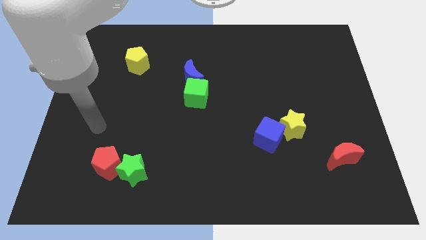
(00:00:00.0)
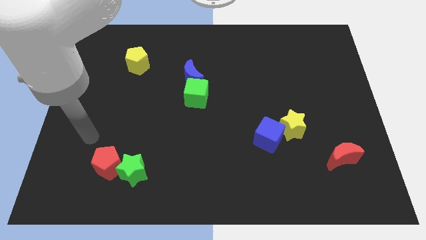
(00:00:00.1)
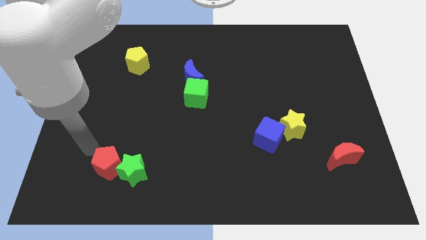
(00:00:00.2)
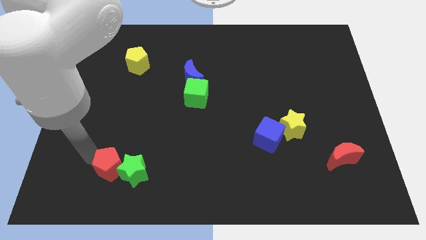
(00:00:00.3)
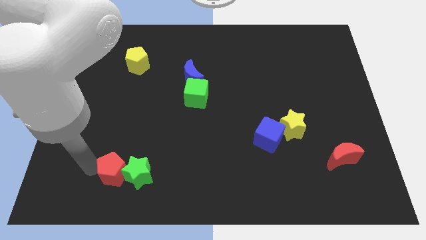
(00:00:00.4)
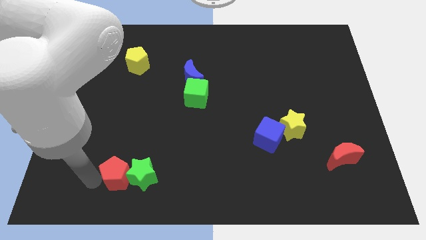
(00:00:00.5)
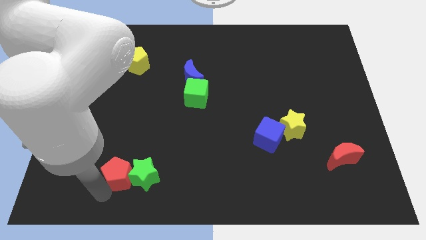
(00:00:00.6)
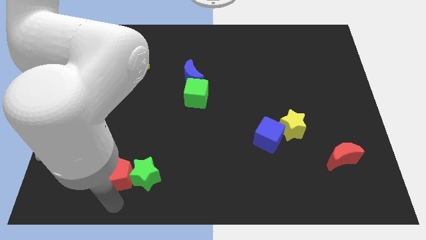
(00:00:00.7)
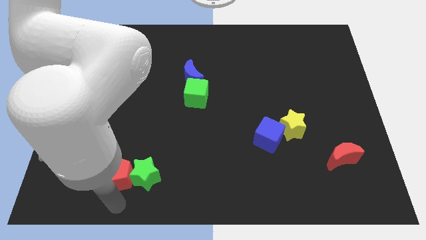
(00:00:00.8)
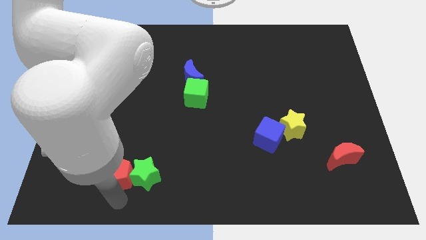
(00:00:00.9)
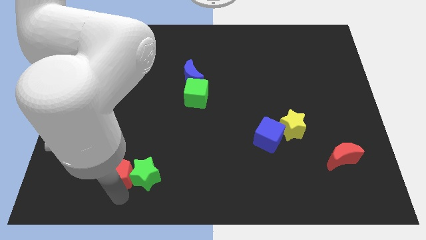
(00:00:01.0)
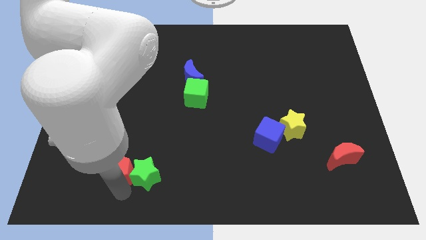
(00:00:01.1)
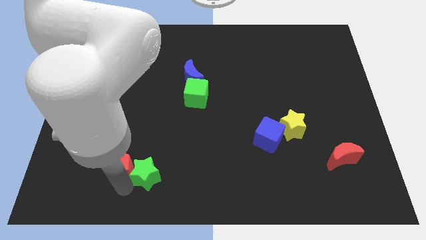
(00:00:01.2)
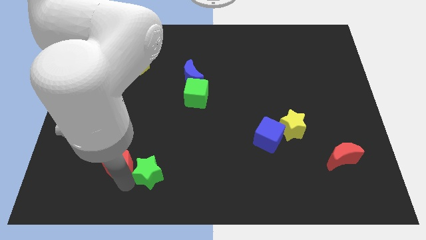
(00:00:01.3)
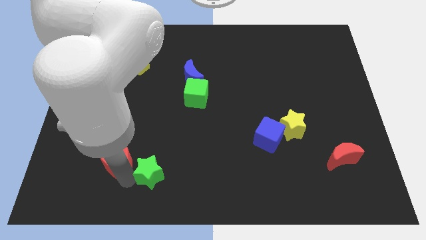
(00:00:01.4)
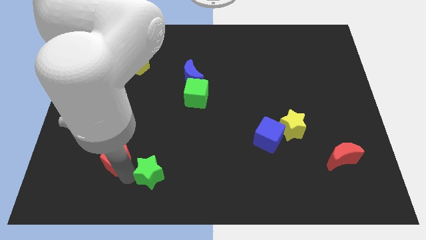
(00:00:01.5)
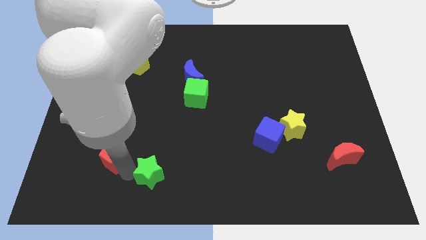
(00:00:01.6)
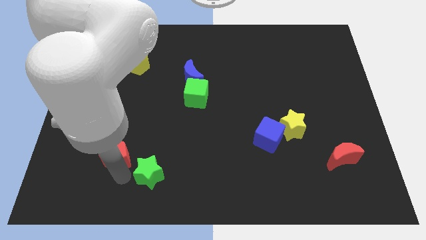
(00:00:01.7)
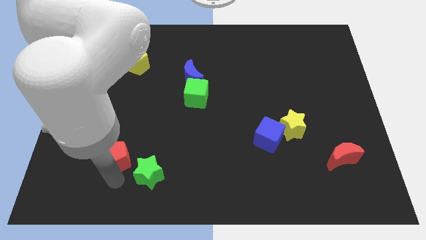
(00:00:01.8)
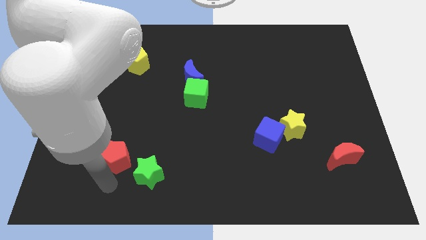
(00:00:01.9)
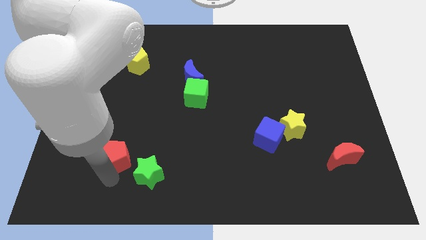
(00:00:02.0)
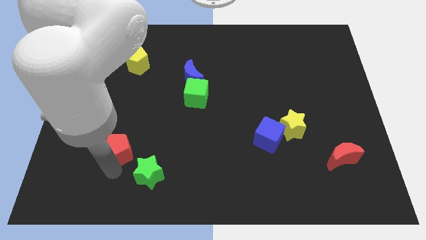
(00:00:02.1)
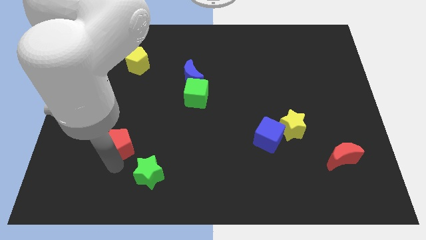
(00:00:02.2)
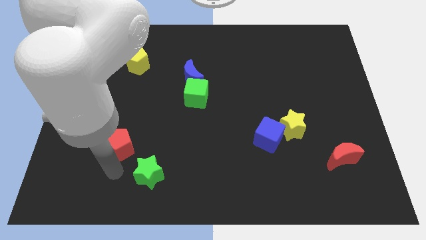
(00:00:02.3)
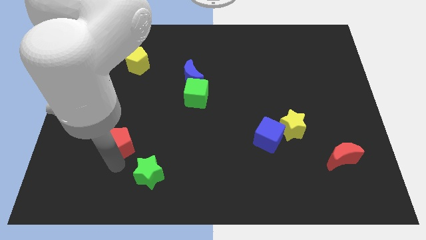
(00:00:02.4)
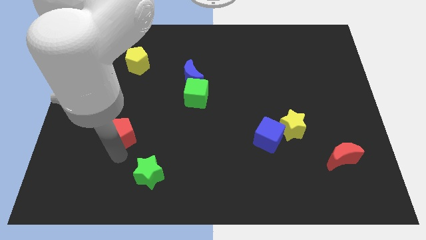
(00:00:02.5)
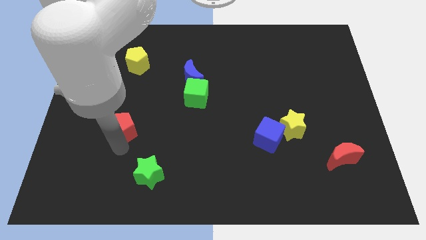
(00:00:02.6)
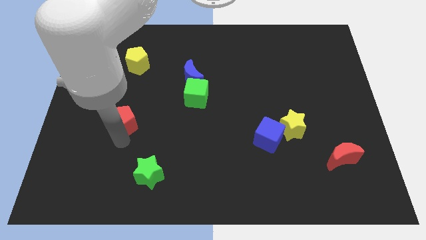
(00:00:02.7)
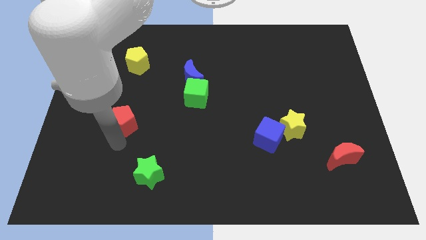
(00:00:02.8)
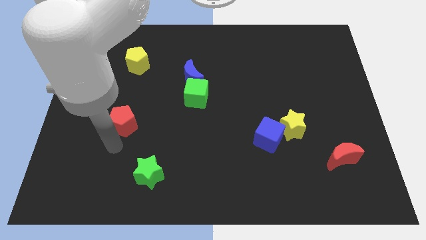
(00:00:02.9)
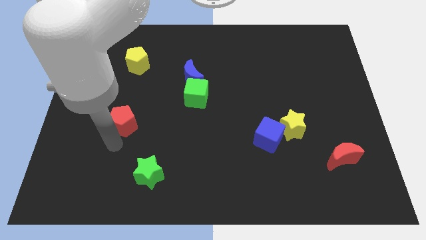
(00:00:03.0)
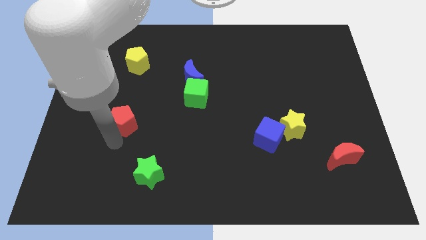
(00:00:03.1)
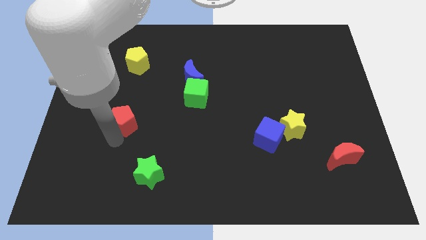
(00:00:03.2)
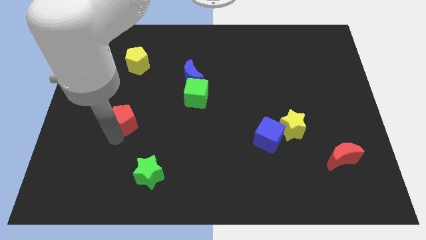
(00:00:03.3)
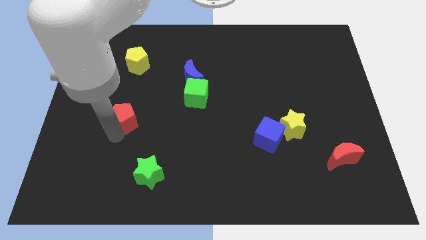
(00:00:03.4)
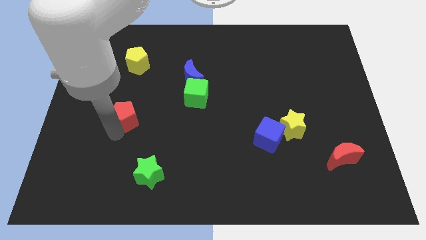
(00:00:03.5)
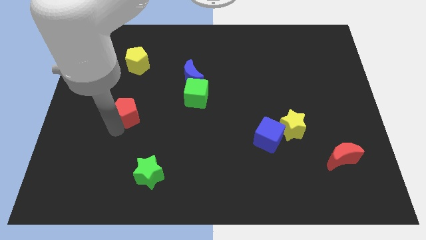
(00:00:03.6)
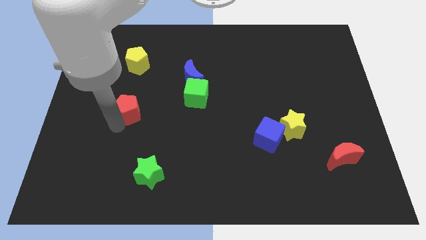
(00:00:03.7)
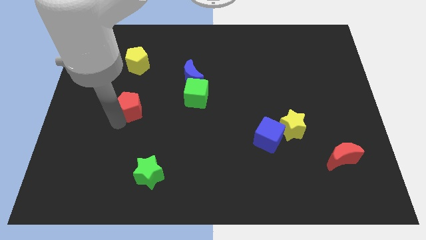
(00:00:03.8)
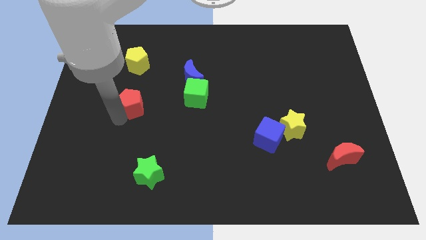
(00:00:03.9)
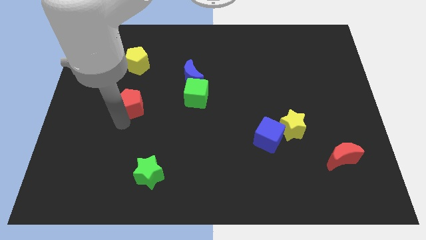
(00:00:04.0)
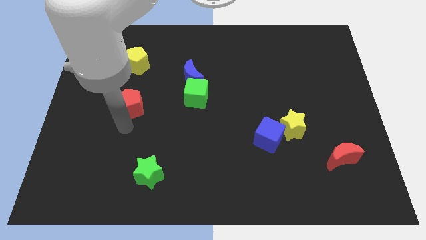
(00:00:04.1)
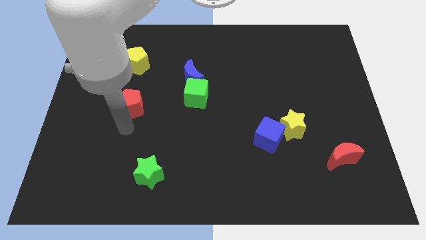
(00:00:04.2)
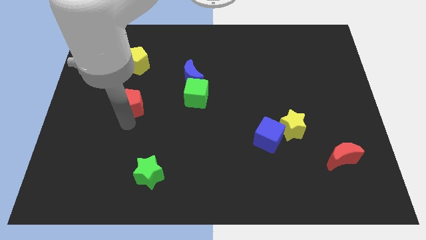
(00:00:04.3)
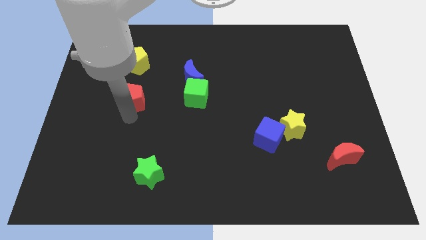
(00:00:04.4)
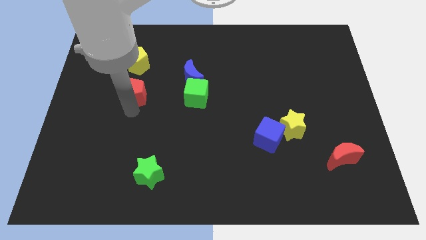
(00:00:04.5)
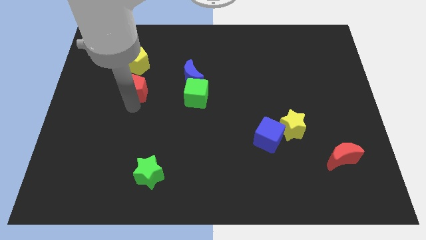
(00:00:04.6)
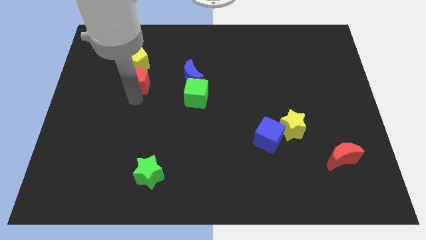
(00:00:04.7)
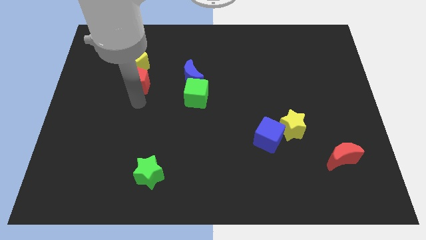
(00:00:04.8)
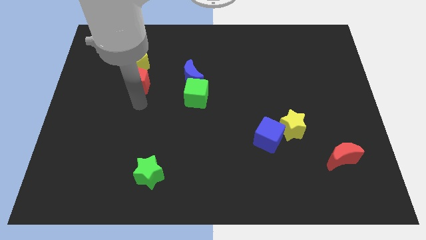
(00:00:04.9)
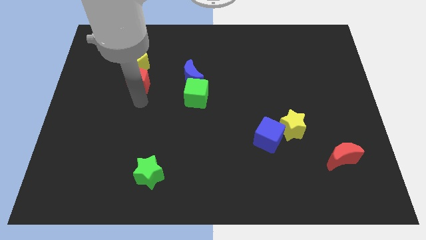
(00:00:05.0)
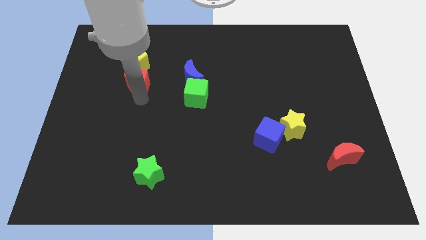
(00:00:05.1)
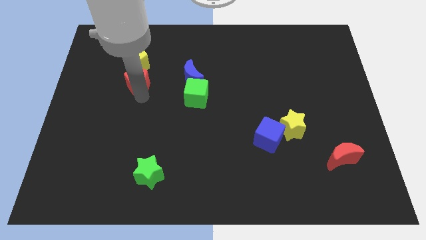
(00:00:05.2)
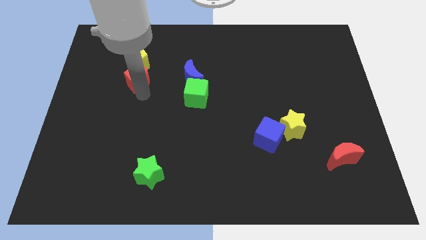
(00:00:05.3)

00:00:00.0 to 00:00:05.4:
put the red pentagon next to the yellow pentagon

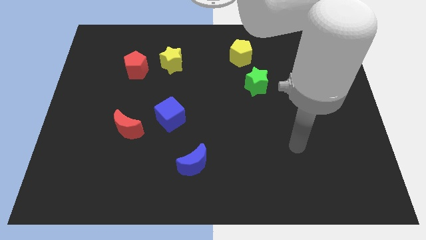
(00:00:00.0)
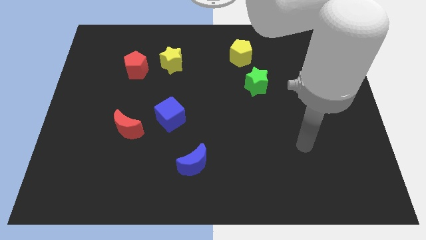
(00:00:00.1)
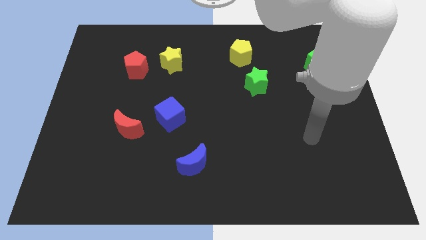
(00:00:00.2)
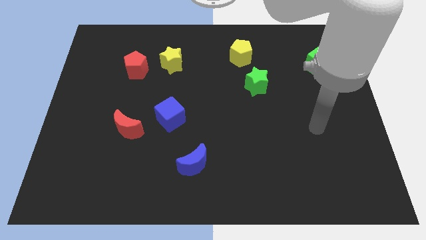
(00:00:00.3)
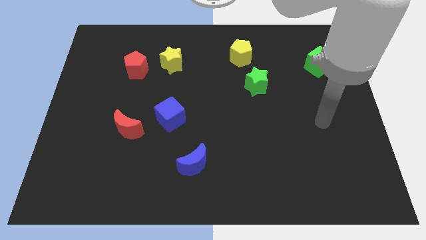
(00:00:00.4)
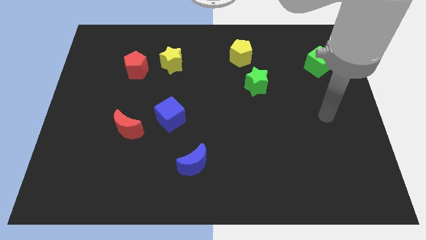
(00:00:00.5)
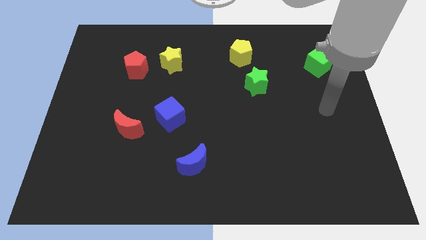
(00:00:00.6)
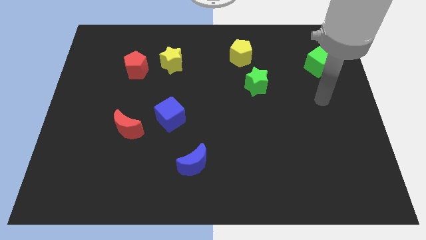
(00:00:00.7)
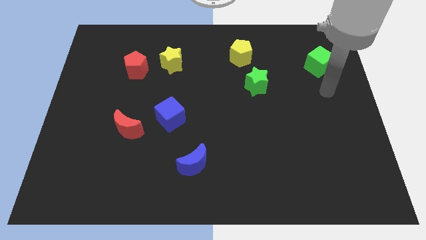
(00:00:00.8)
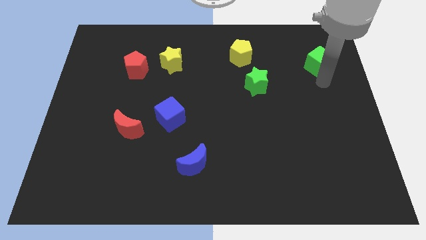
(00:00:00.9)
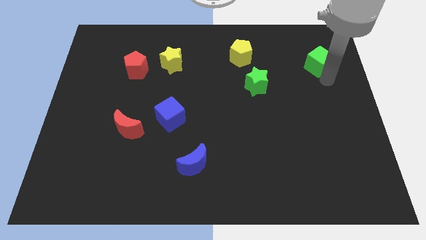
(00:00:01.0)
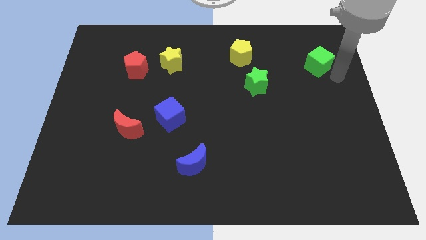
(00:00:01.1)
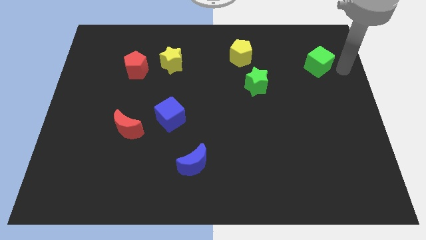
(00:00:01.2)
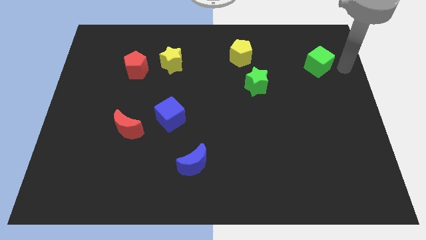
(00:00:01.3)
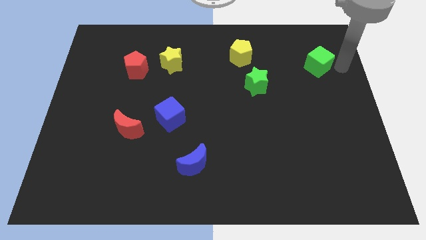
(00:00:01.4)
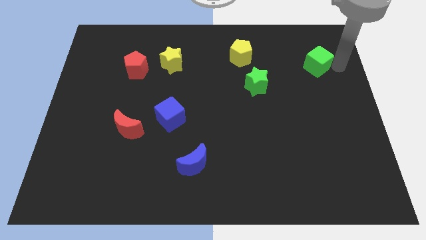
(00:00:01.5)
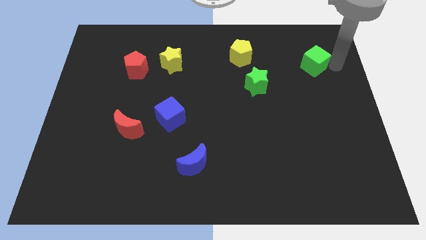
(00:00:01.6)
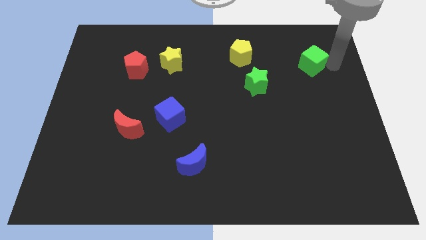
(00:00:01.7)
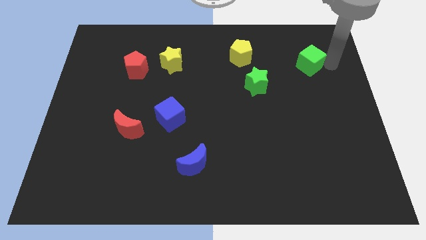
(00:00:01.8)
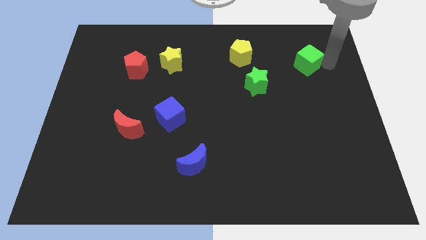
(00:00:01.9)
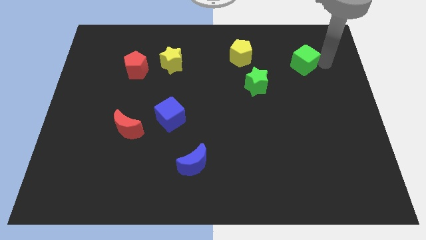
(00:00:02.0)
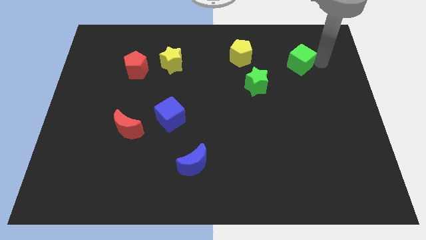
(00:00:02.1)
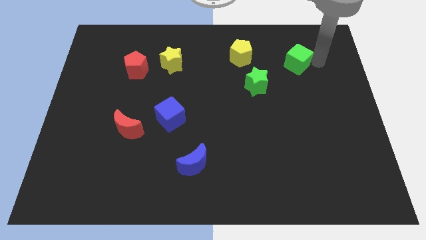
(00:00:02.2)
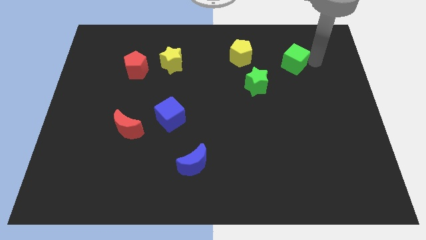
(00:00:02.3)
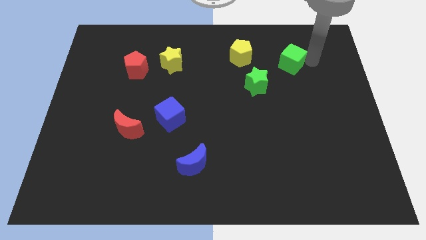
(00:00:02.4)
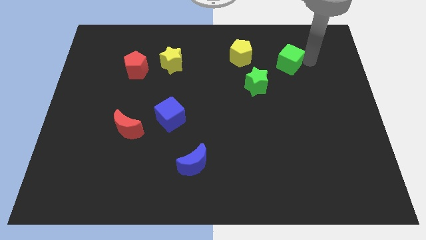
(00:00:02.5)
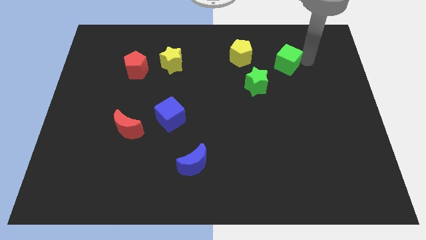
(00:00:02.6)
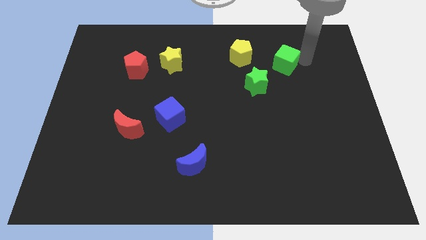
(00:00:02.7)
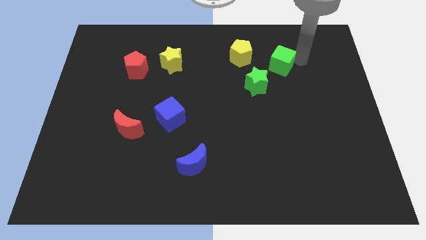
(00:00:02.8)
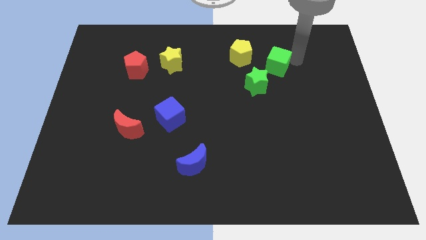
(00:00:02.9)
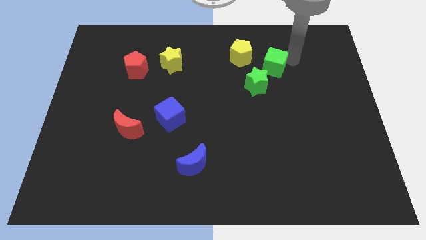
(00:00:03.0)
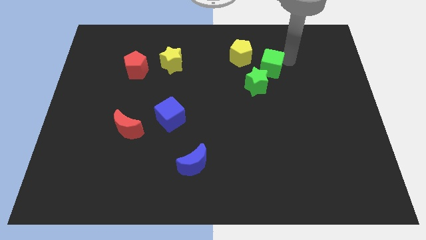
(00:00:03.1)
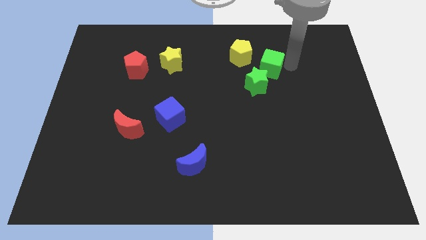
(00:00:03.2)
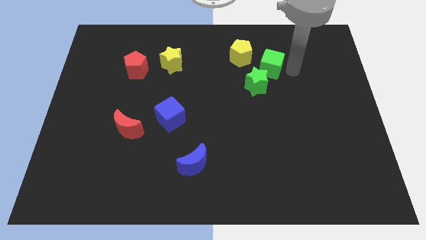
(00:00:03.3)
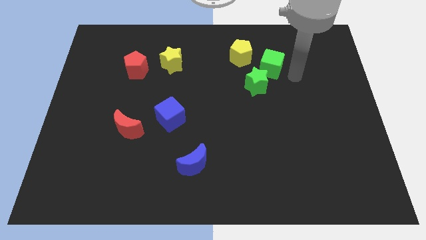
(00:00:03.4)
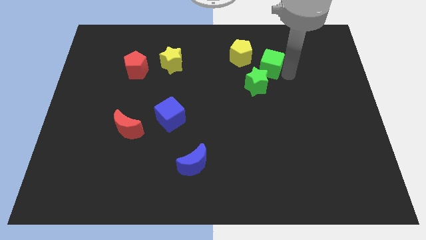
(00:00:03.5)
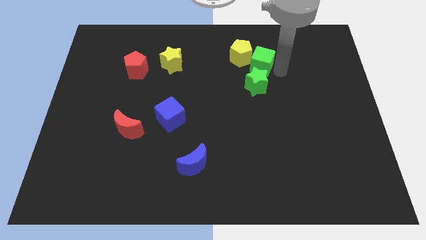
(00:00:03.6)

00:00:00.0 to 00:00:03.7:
move the green cube towards the yellow pentagon
